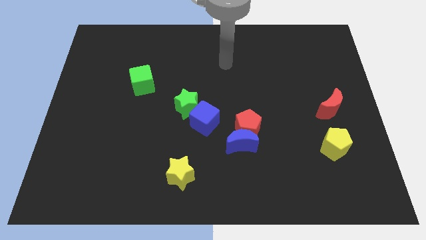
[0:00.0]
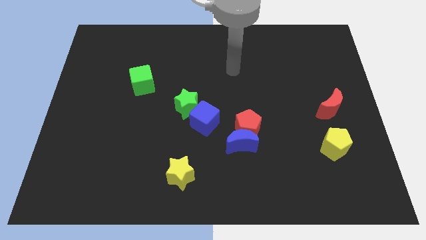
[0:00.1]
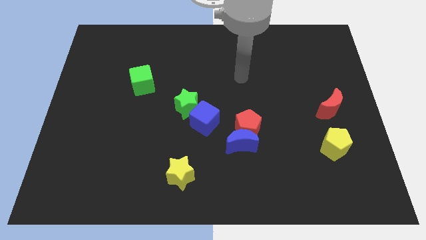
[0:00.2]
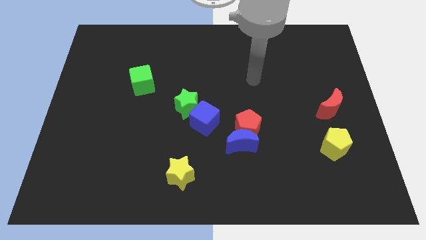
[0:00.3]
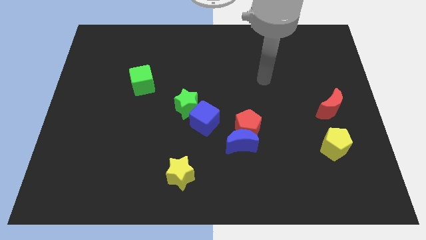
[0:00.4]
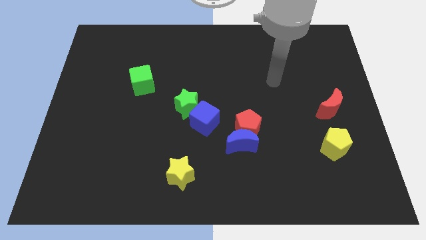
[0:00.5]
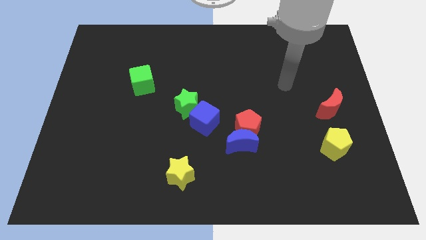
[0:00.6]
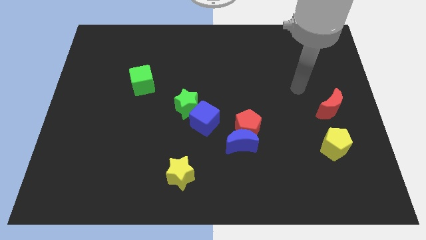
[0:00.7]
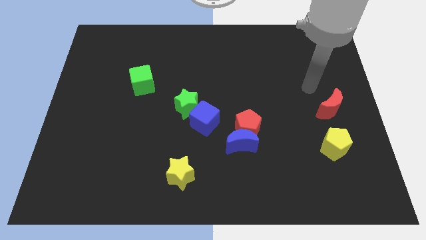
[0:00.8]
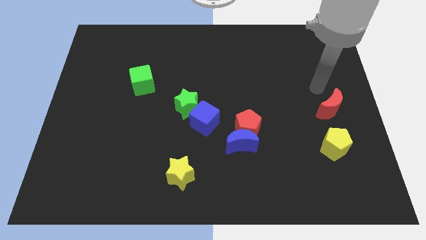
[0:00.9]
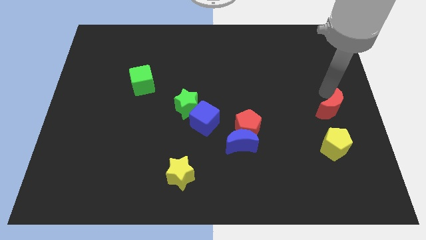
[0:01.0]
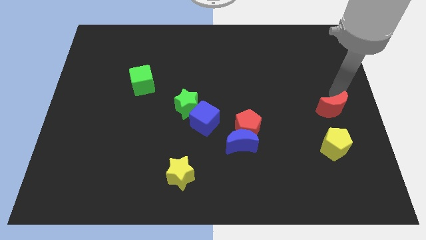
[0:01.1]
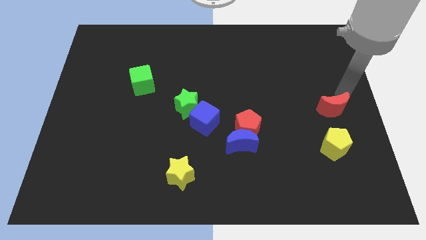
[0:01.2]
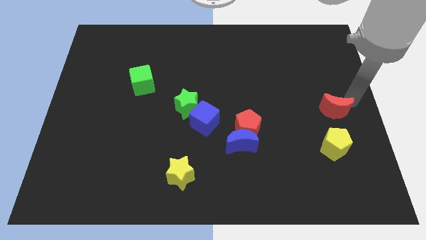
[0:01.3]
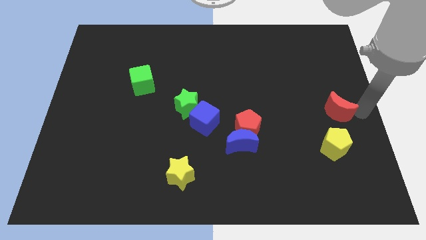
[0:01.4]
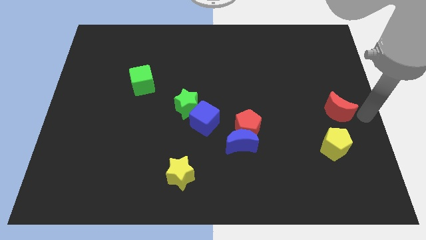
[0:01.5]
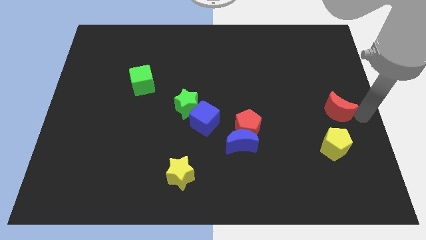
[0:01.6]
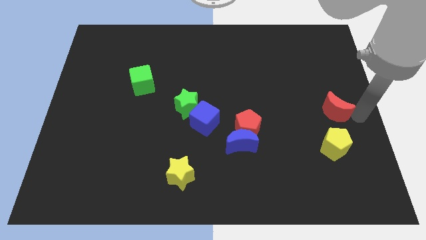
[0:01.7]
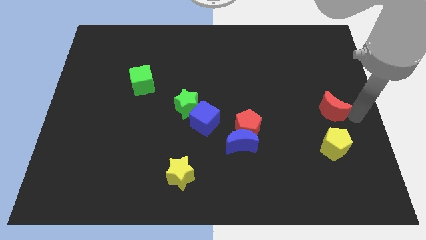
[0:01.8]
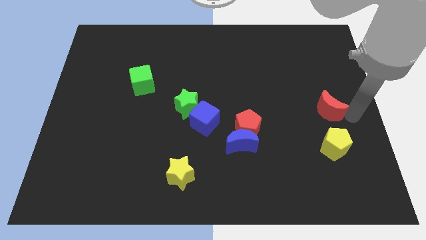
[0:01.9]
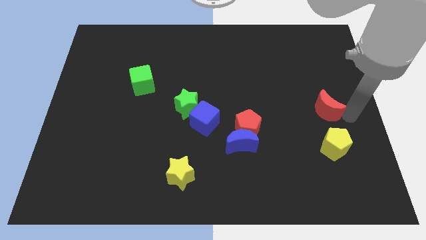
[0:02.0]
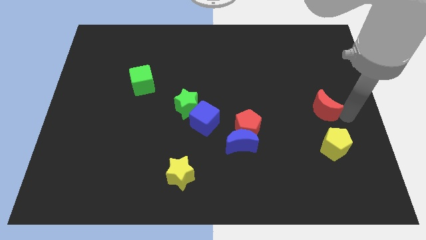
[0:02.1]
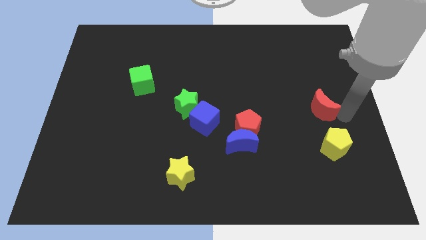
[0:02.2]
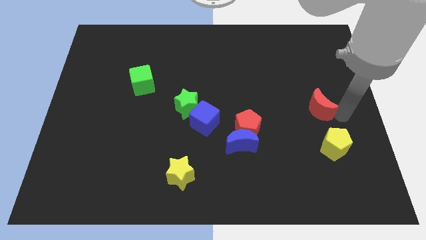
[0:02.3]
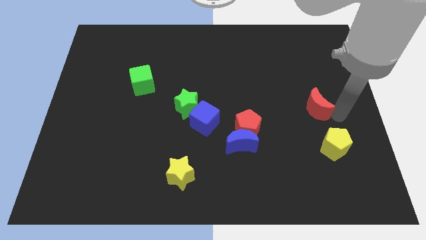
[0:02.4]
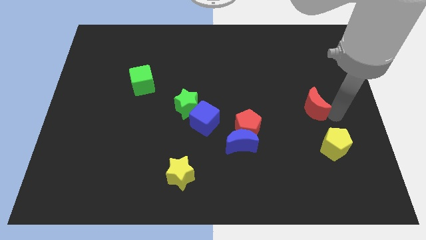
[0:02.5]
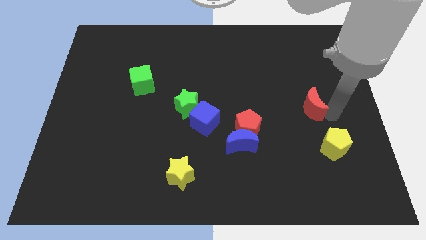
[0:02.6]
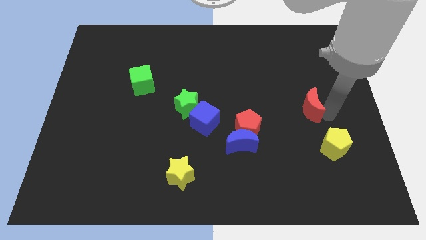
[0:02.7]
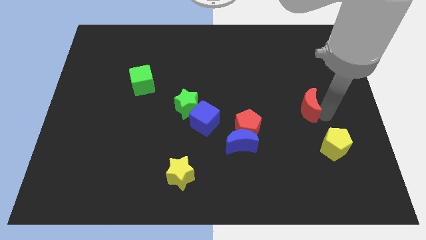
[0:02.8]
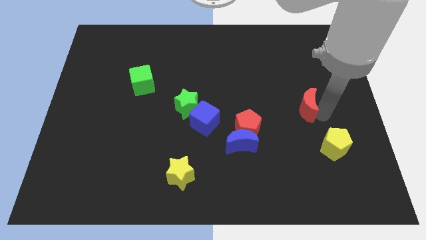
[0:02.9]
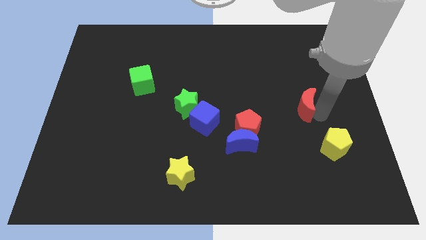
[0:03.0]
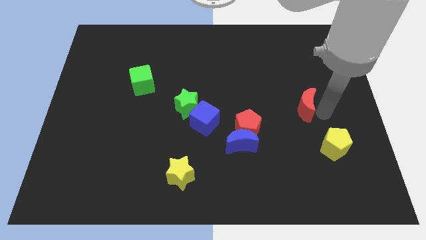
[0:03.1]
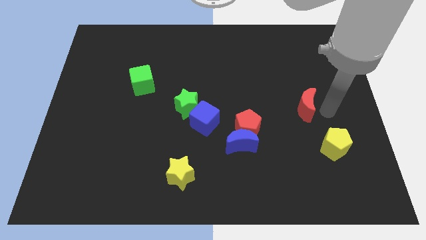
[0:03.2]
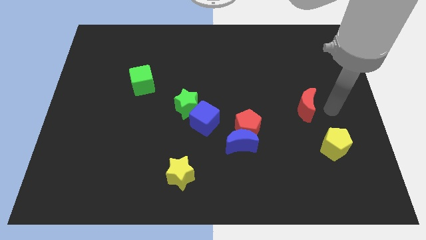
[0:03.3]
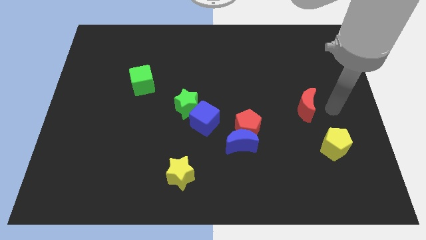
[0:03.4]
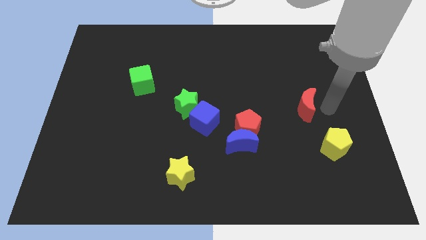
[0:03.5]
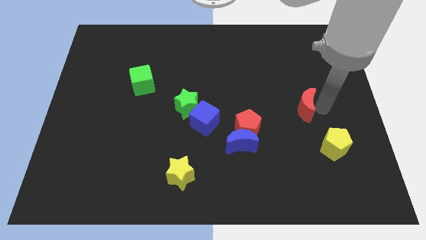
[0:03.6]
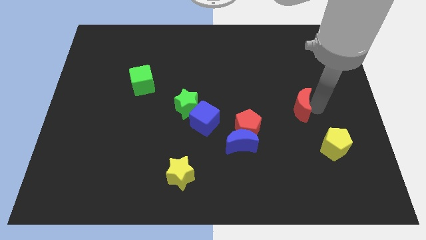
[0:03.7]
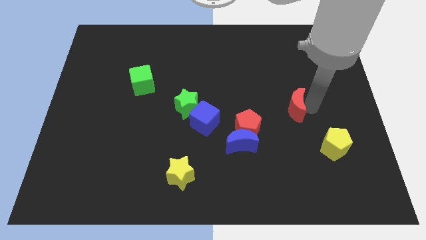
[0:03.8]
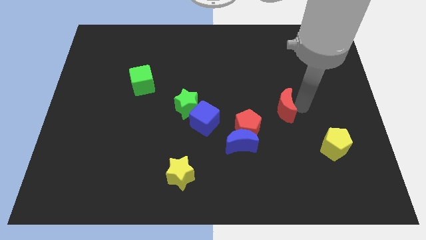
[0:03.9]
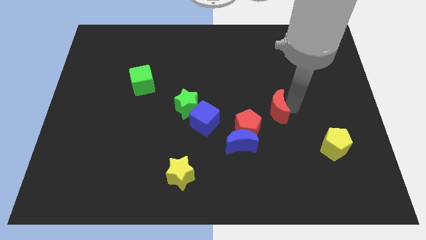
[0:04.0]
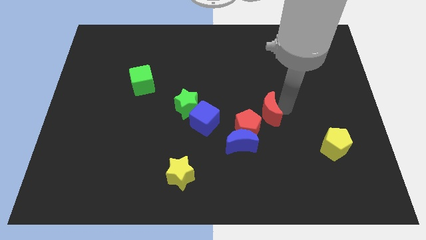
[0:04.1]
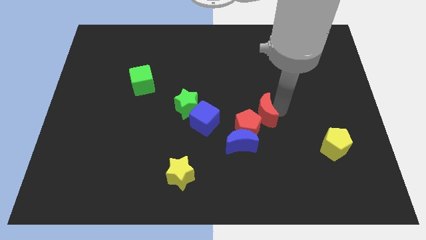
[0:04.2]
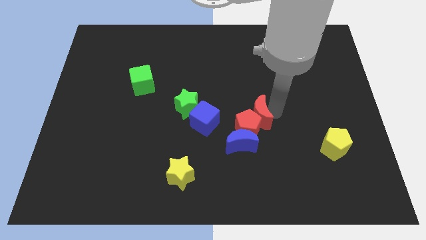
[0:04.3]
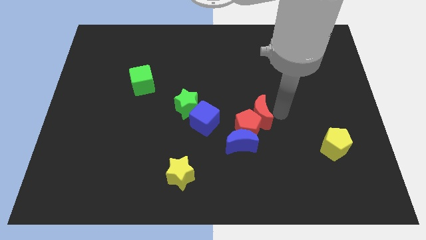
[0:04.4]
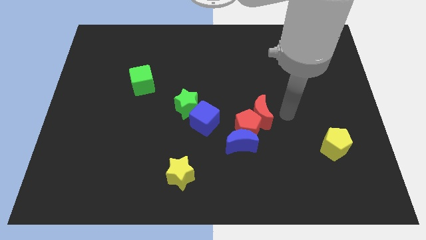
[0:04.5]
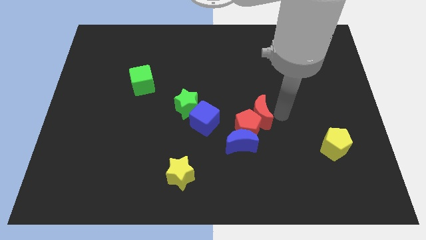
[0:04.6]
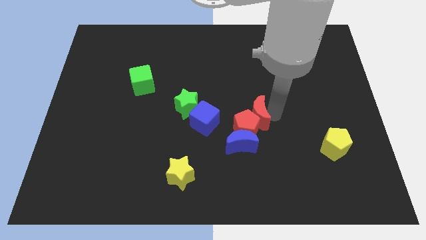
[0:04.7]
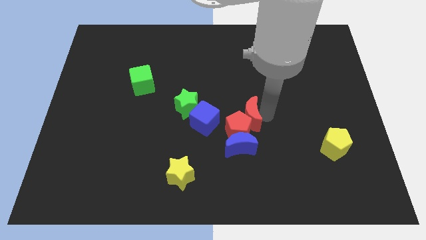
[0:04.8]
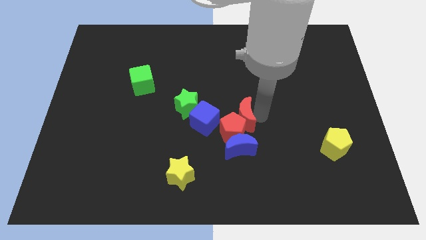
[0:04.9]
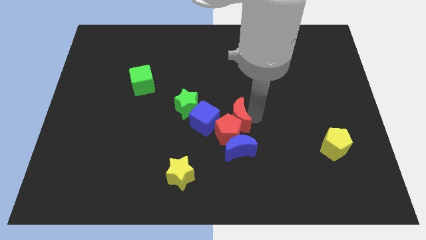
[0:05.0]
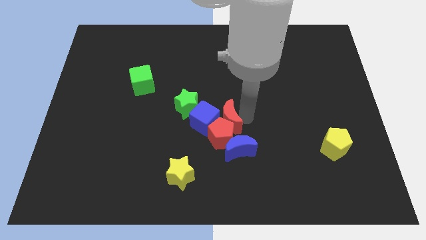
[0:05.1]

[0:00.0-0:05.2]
put the red moon towards the blue cube

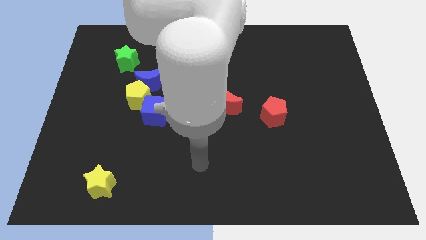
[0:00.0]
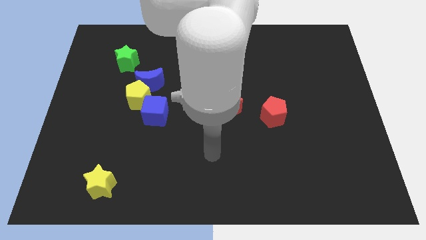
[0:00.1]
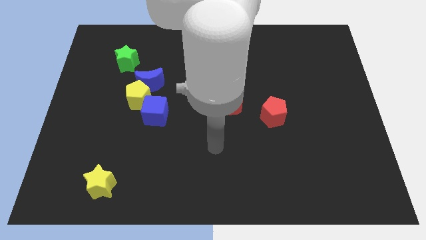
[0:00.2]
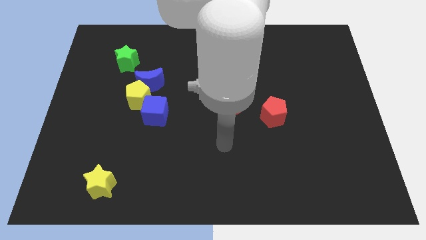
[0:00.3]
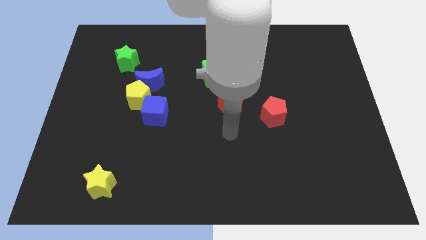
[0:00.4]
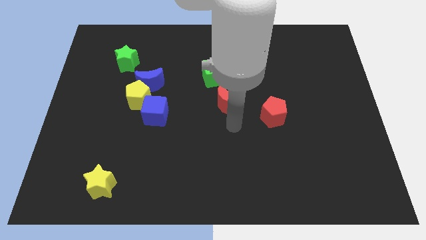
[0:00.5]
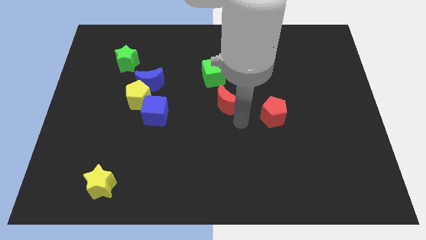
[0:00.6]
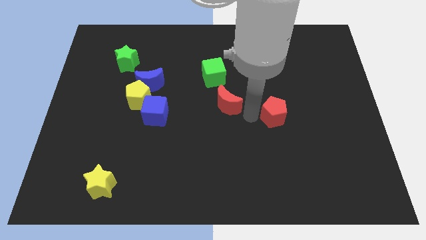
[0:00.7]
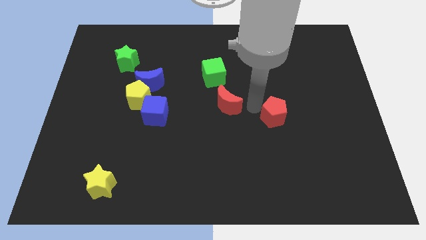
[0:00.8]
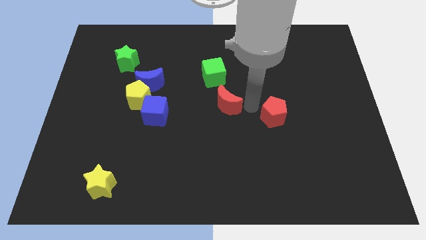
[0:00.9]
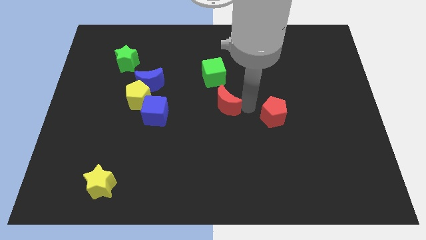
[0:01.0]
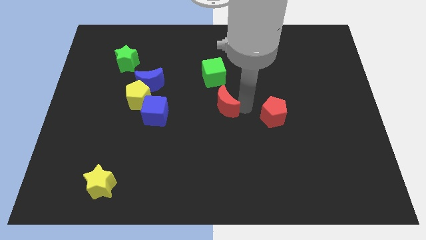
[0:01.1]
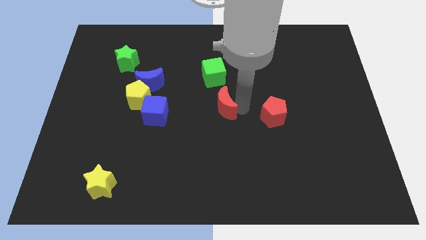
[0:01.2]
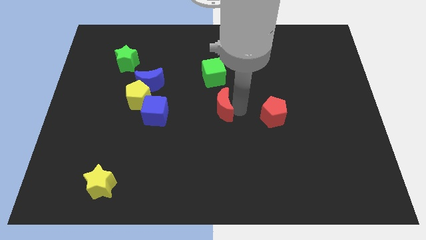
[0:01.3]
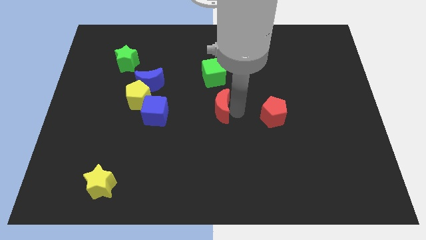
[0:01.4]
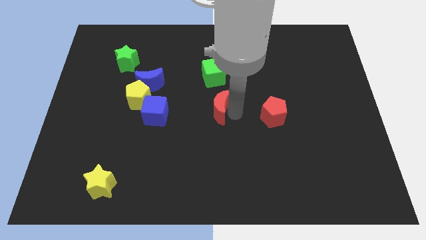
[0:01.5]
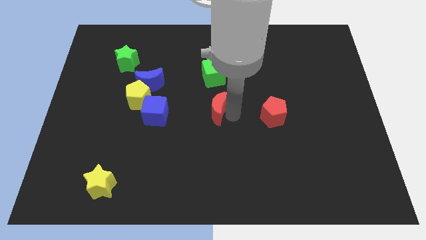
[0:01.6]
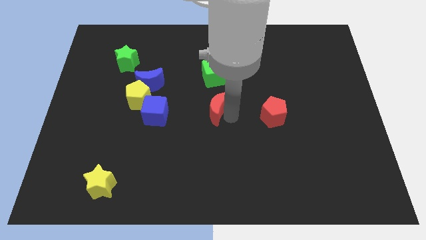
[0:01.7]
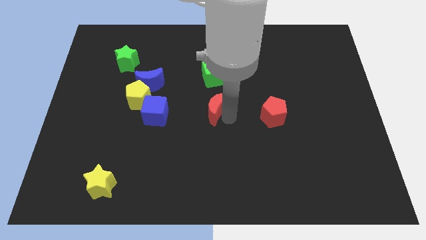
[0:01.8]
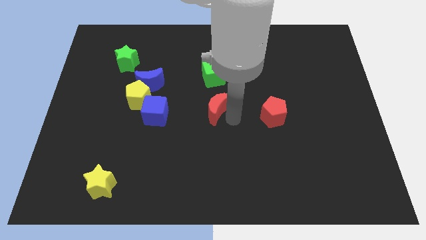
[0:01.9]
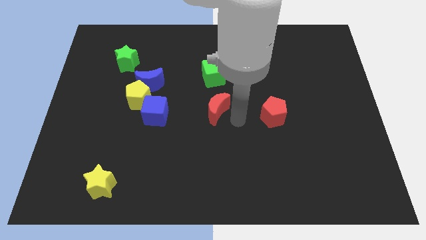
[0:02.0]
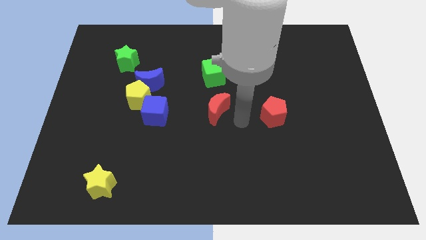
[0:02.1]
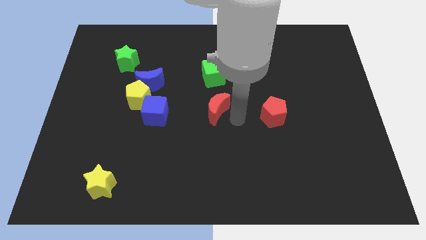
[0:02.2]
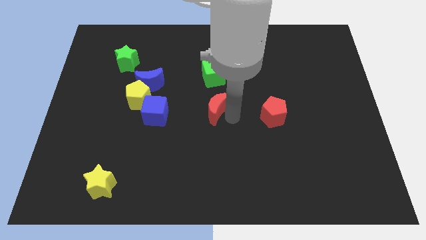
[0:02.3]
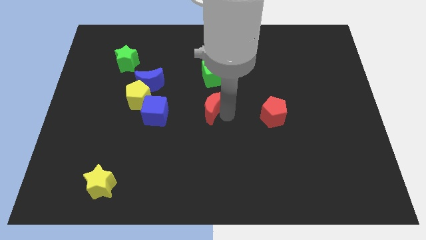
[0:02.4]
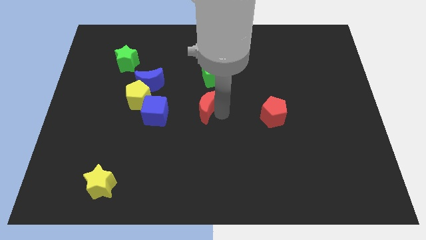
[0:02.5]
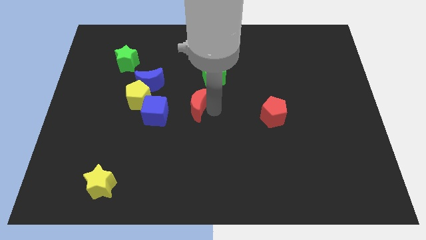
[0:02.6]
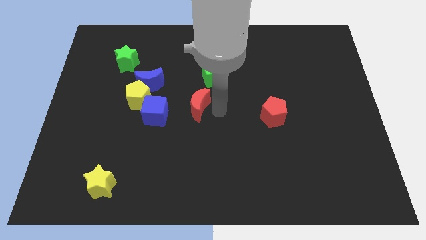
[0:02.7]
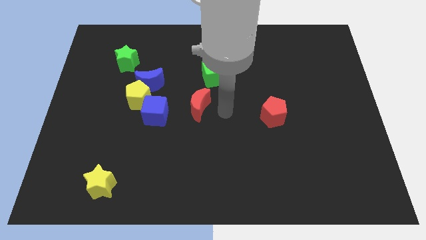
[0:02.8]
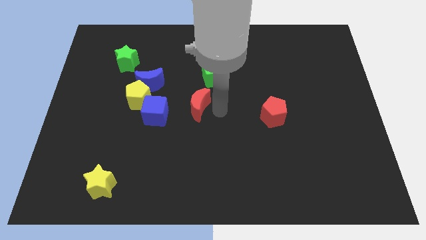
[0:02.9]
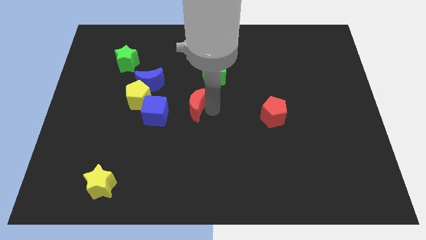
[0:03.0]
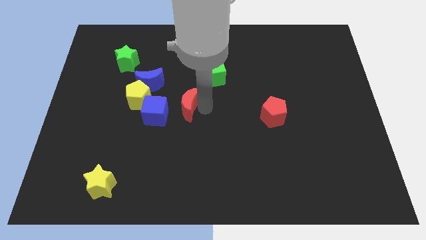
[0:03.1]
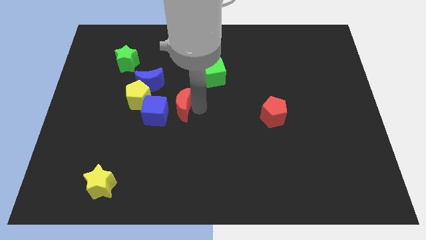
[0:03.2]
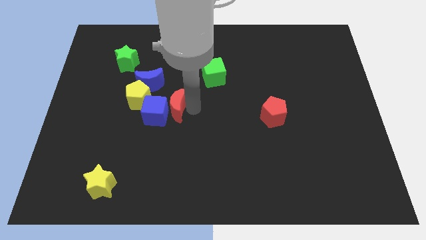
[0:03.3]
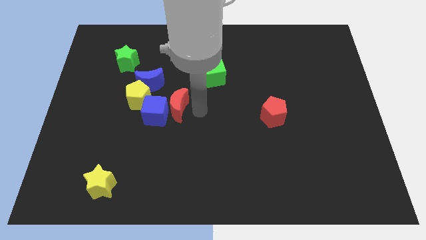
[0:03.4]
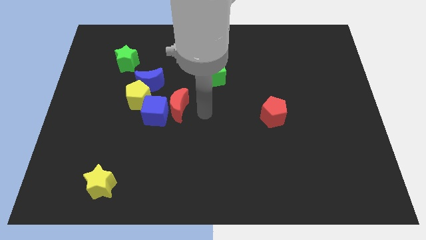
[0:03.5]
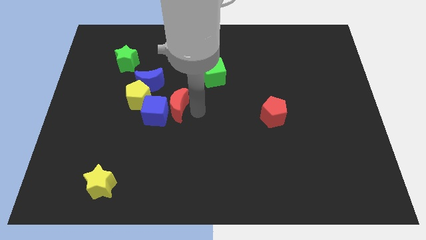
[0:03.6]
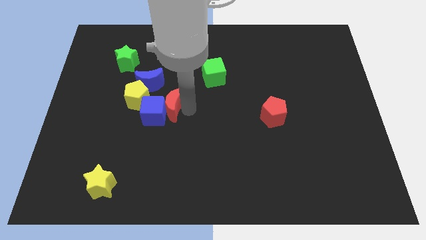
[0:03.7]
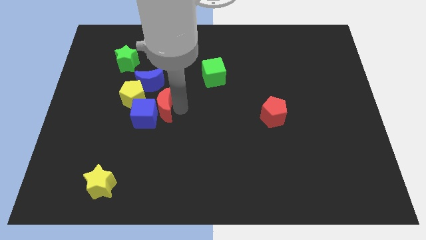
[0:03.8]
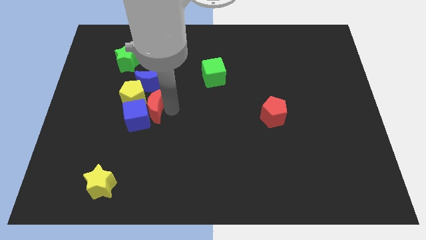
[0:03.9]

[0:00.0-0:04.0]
push the red moon next to the yellow pentagon
